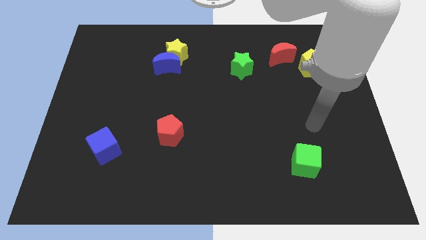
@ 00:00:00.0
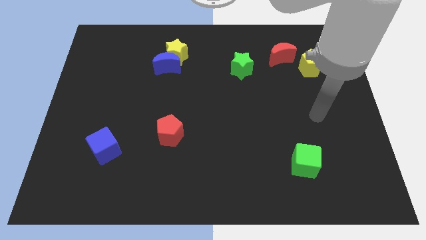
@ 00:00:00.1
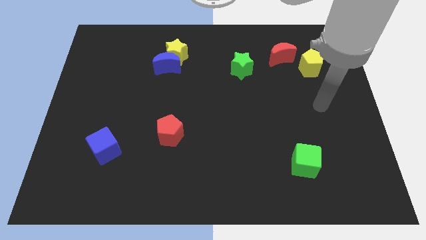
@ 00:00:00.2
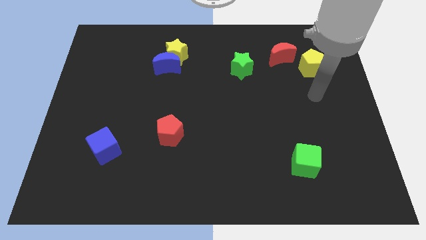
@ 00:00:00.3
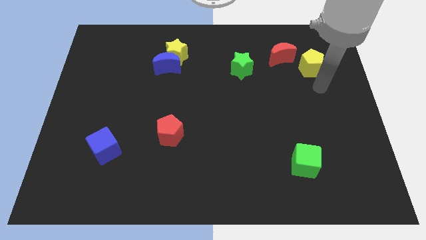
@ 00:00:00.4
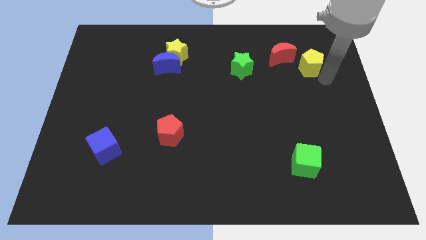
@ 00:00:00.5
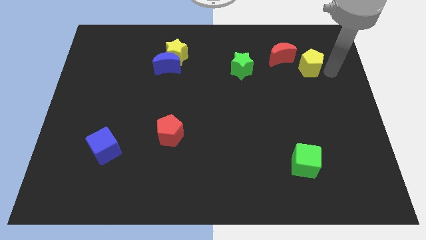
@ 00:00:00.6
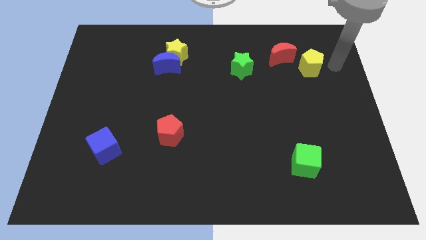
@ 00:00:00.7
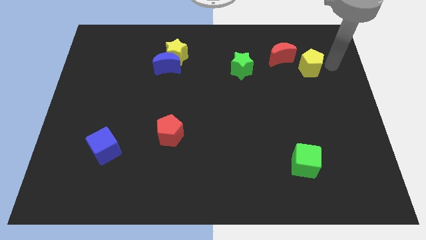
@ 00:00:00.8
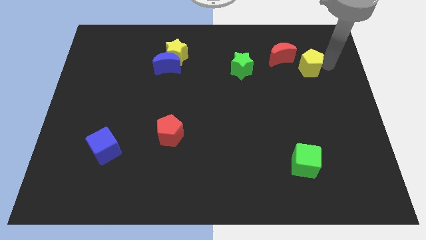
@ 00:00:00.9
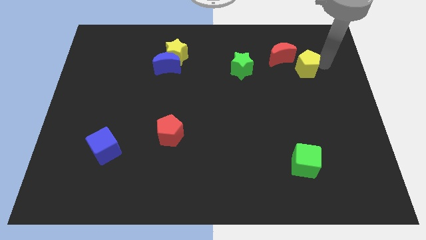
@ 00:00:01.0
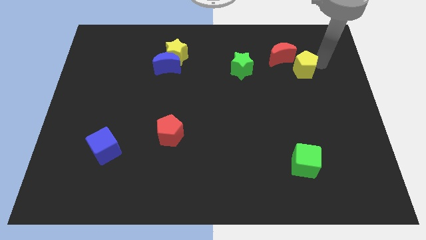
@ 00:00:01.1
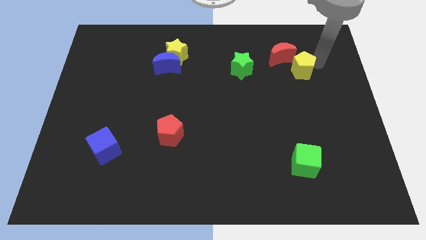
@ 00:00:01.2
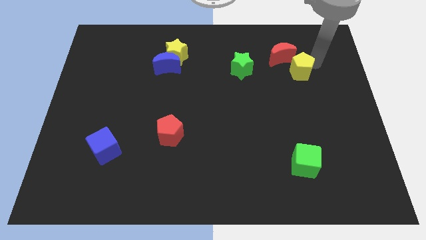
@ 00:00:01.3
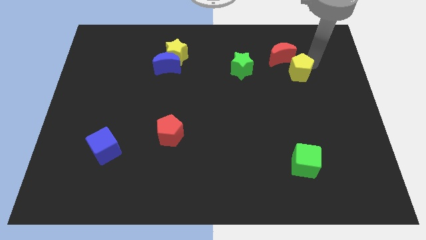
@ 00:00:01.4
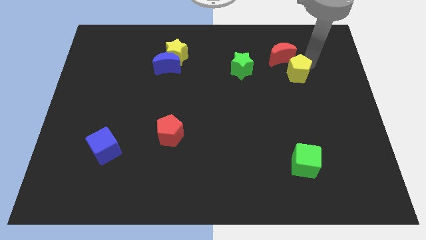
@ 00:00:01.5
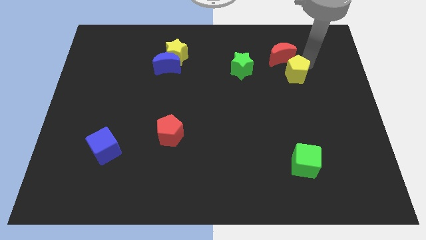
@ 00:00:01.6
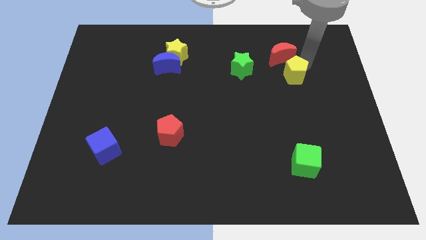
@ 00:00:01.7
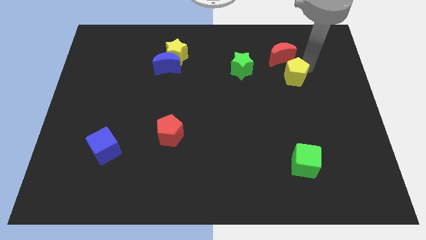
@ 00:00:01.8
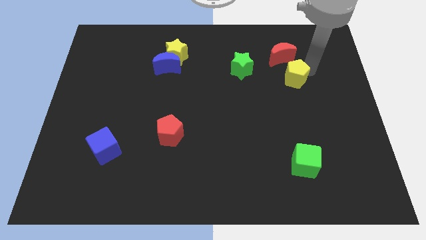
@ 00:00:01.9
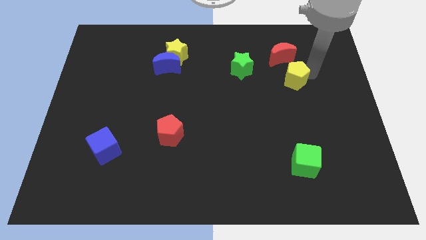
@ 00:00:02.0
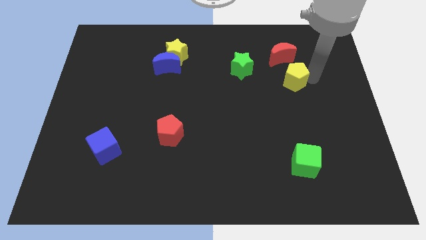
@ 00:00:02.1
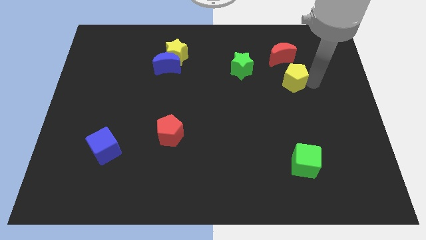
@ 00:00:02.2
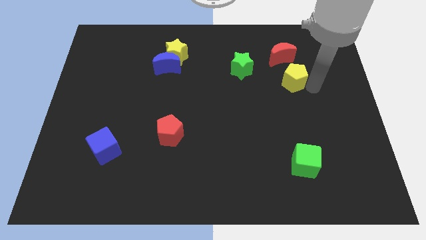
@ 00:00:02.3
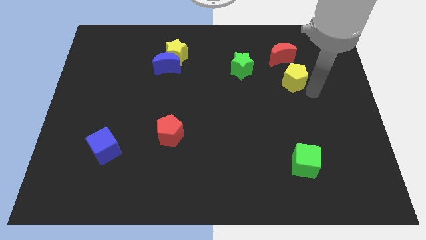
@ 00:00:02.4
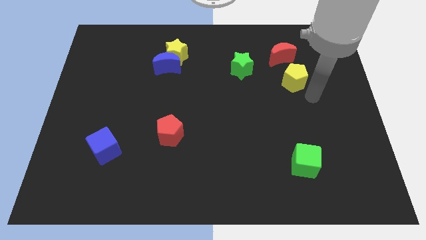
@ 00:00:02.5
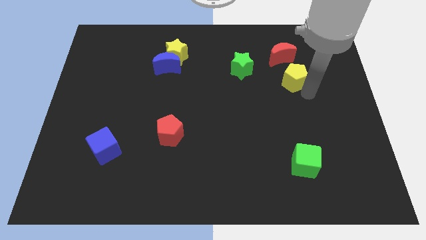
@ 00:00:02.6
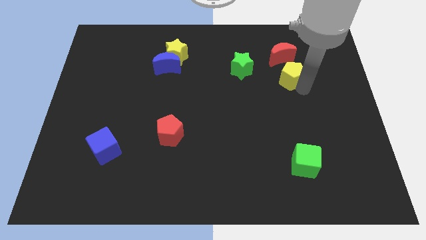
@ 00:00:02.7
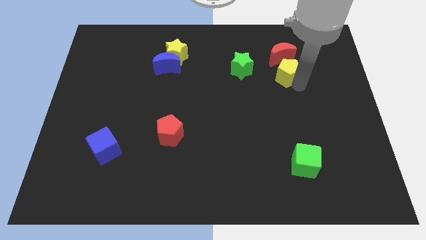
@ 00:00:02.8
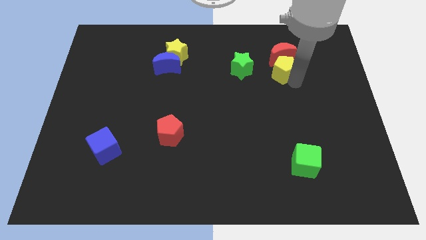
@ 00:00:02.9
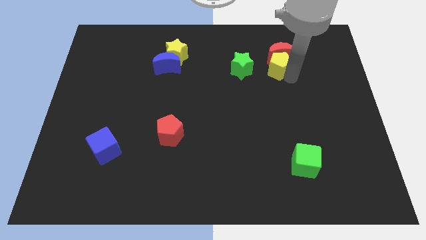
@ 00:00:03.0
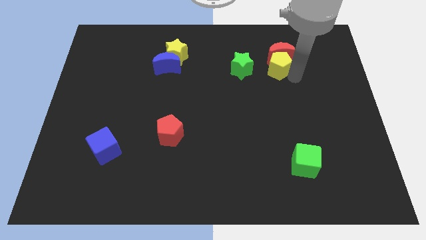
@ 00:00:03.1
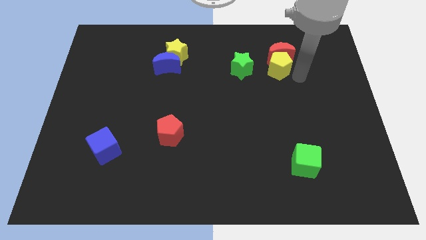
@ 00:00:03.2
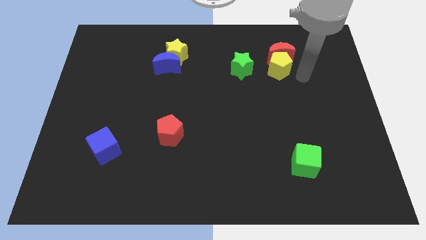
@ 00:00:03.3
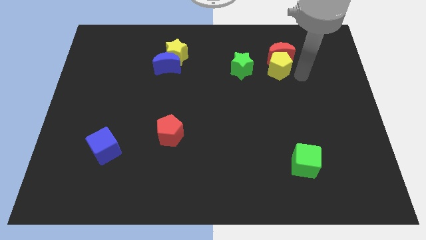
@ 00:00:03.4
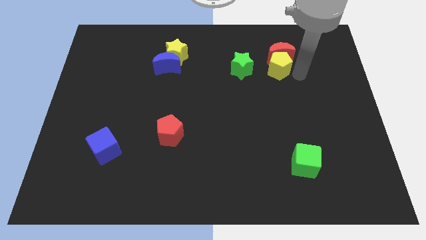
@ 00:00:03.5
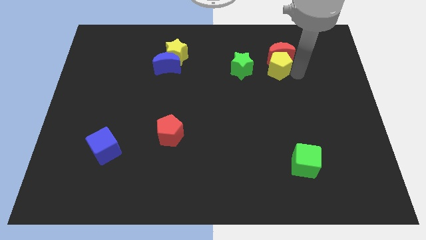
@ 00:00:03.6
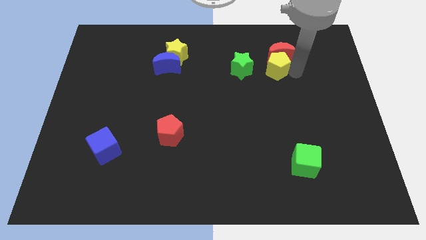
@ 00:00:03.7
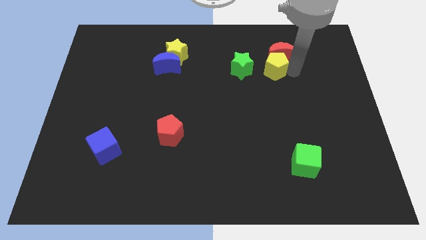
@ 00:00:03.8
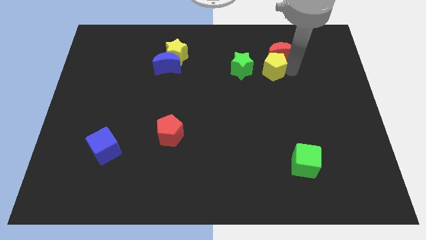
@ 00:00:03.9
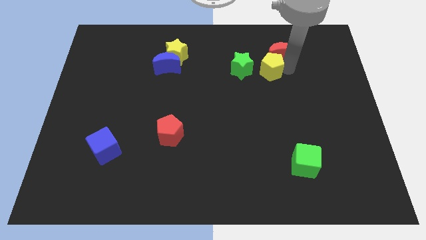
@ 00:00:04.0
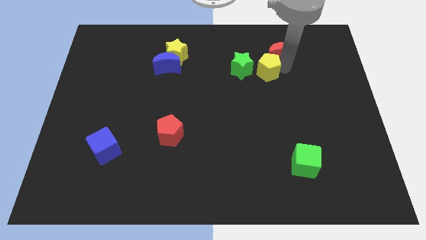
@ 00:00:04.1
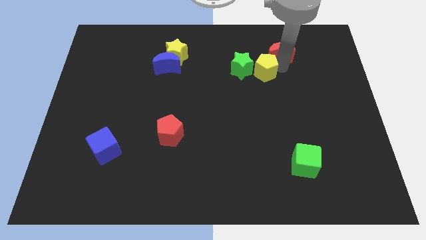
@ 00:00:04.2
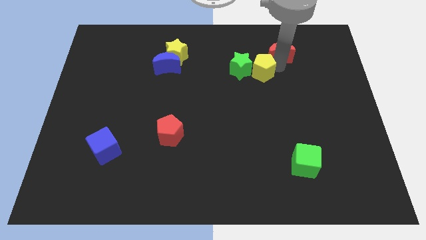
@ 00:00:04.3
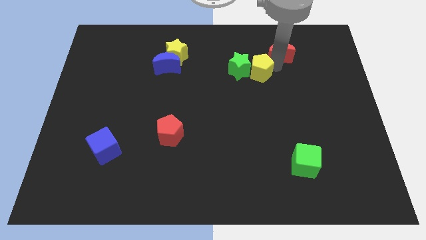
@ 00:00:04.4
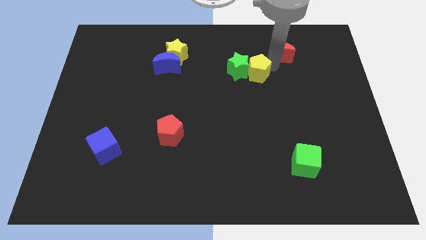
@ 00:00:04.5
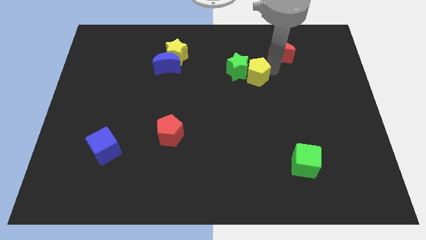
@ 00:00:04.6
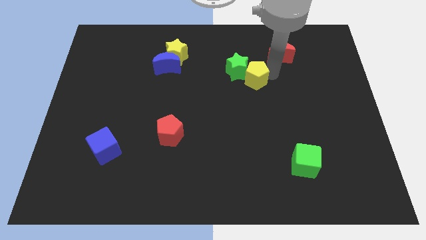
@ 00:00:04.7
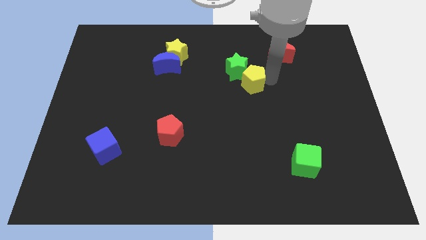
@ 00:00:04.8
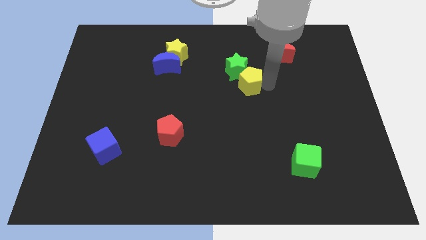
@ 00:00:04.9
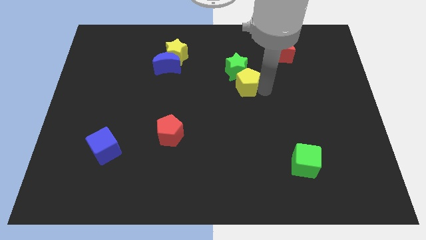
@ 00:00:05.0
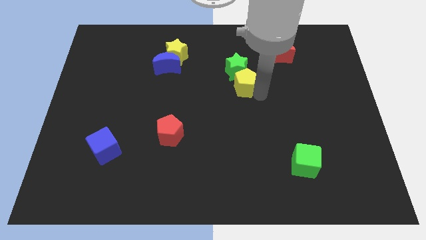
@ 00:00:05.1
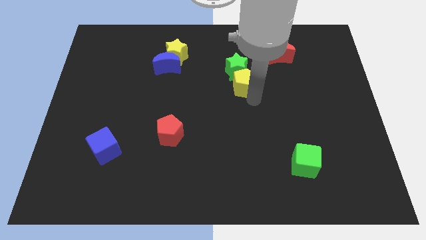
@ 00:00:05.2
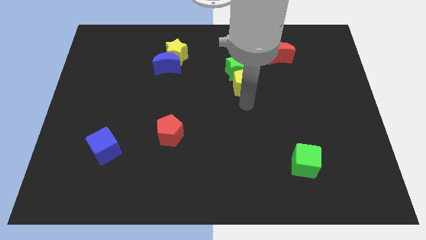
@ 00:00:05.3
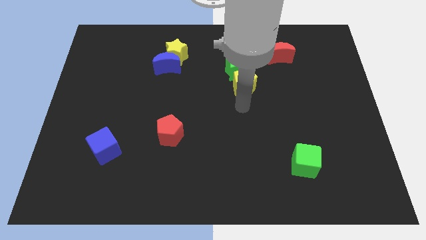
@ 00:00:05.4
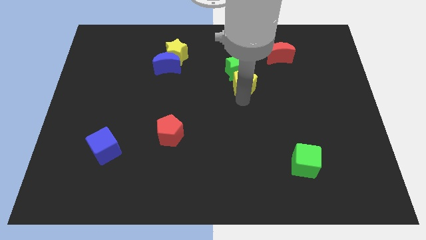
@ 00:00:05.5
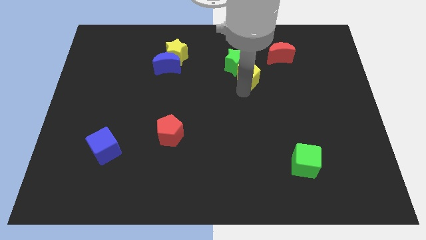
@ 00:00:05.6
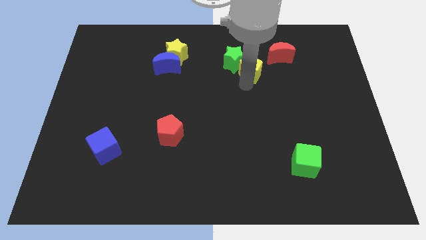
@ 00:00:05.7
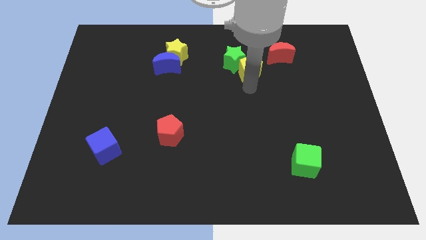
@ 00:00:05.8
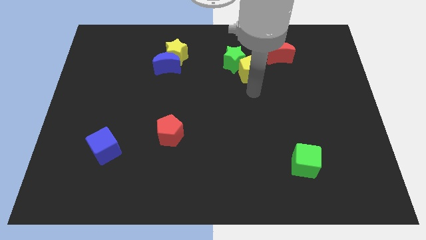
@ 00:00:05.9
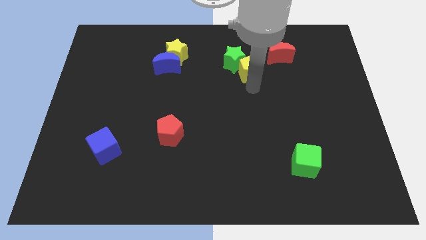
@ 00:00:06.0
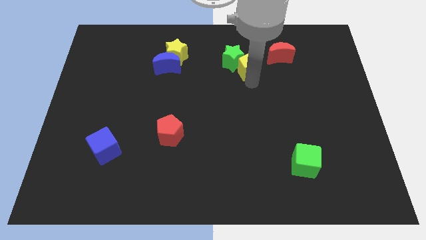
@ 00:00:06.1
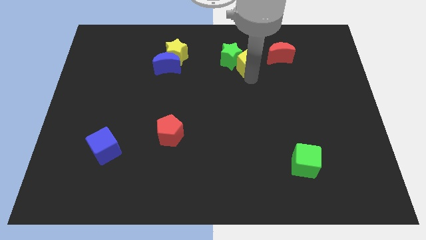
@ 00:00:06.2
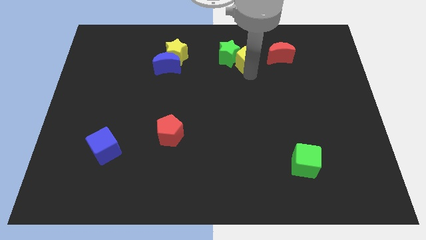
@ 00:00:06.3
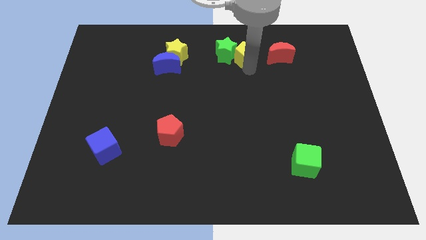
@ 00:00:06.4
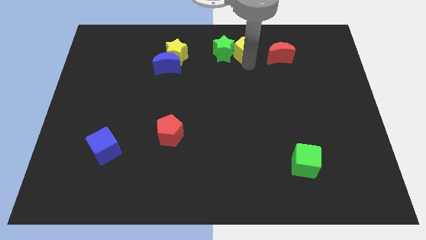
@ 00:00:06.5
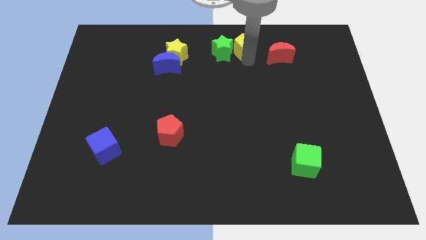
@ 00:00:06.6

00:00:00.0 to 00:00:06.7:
move the yellow pentagon to the top side

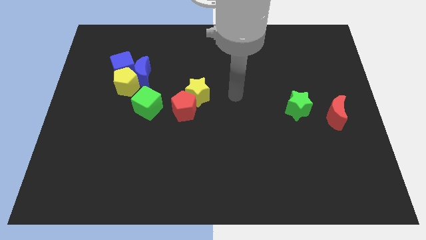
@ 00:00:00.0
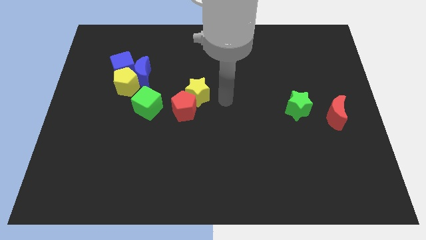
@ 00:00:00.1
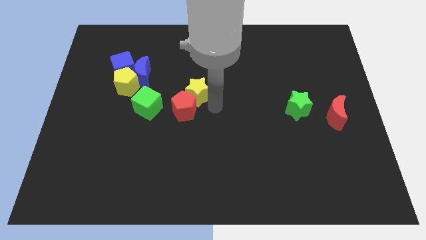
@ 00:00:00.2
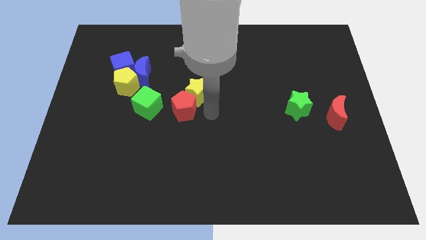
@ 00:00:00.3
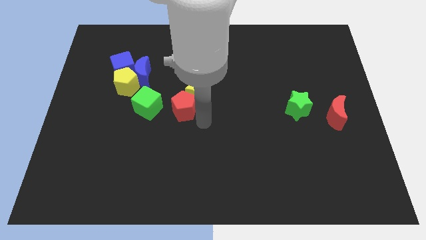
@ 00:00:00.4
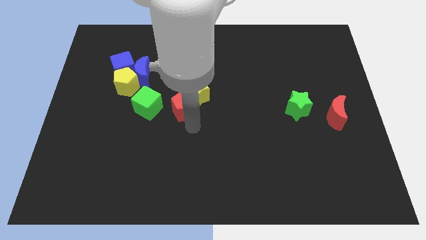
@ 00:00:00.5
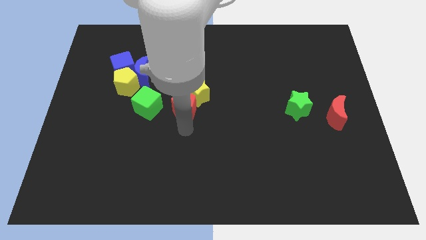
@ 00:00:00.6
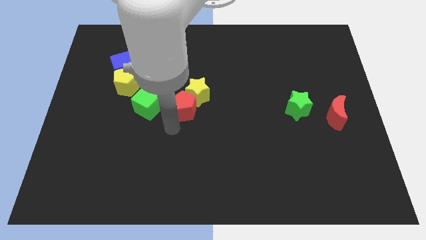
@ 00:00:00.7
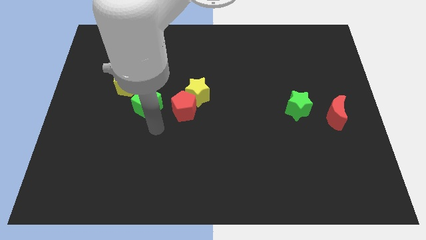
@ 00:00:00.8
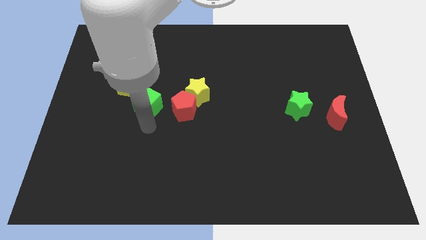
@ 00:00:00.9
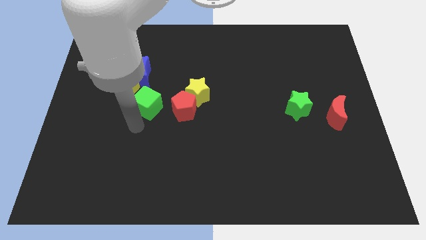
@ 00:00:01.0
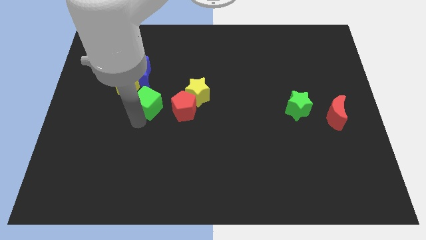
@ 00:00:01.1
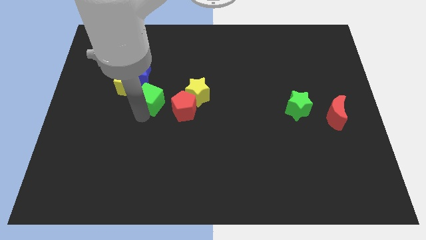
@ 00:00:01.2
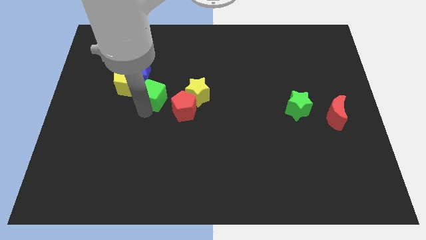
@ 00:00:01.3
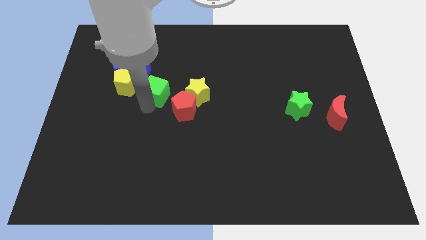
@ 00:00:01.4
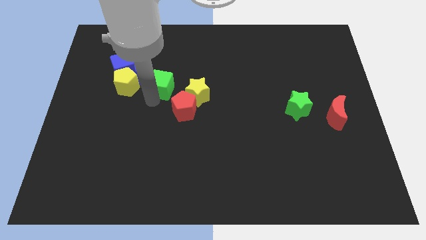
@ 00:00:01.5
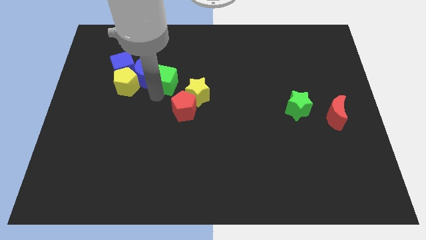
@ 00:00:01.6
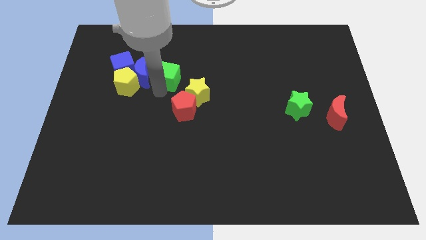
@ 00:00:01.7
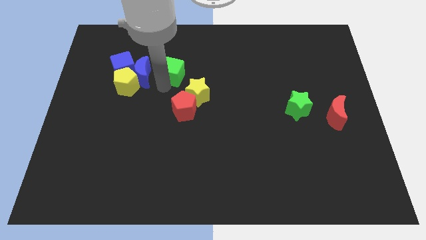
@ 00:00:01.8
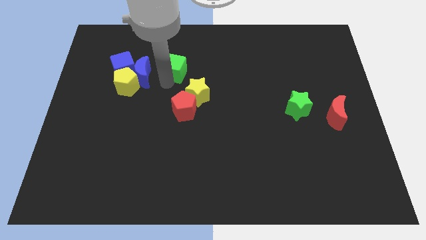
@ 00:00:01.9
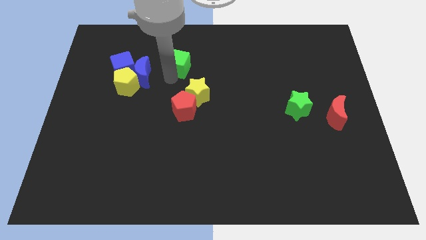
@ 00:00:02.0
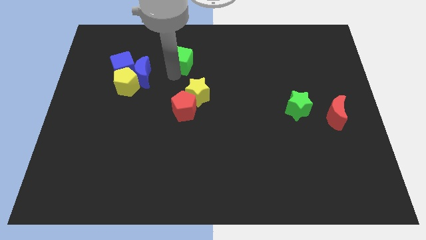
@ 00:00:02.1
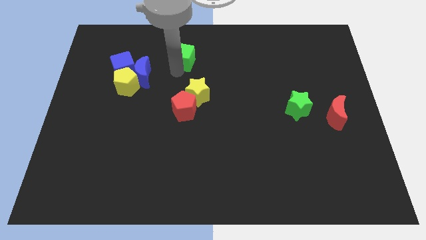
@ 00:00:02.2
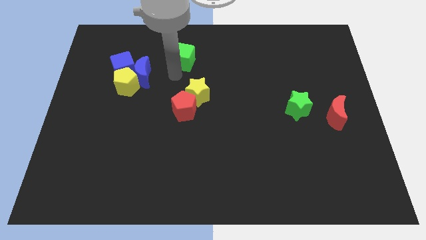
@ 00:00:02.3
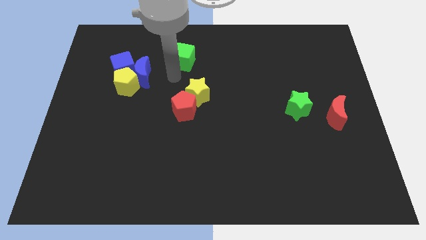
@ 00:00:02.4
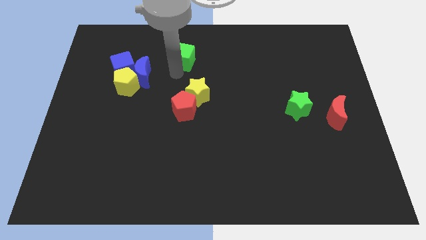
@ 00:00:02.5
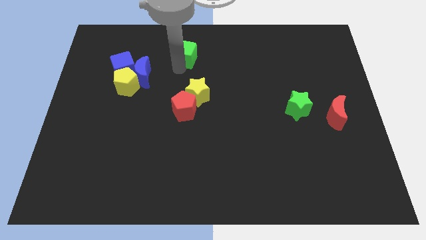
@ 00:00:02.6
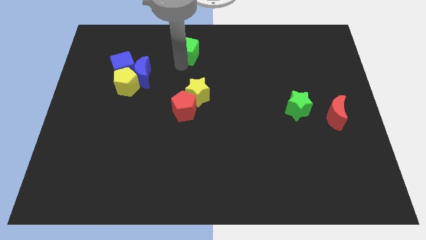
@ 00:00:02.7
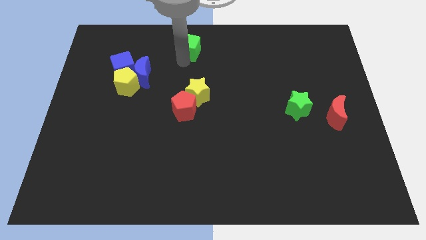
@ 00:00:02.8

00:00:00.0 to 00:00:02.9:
put the green cube to the top side
